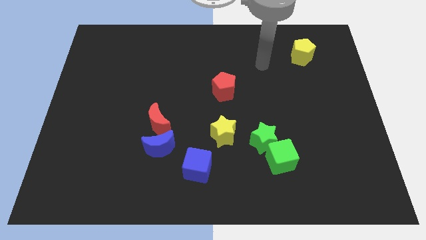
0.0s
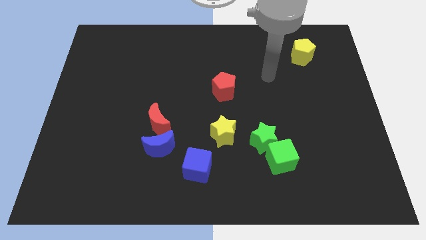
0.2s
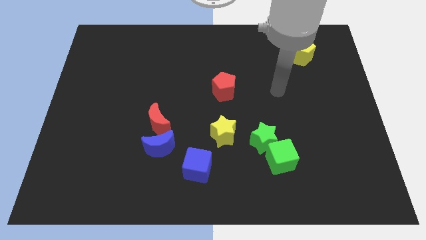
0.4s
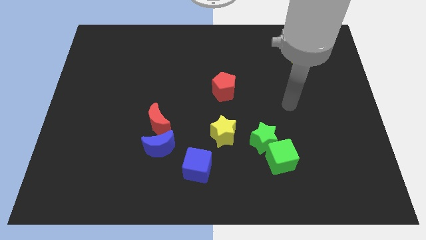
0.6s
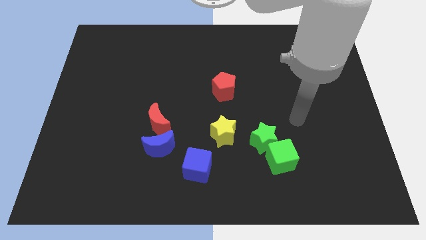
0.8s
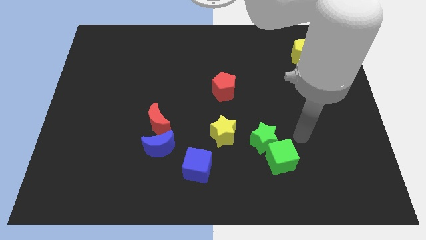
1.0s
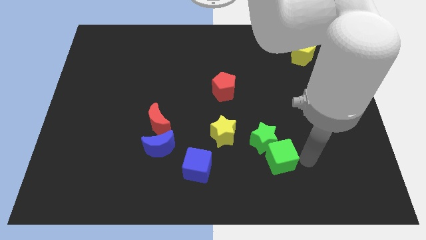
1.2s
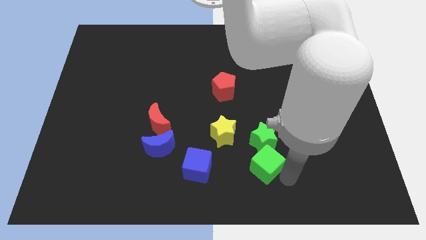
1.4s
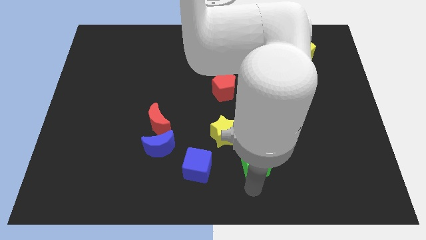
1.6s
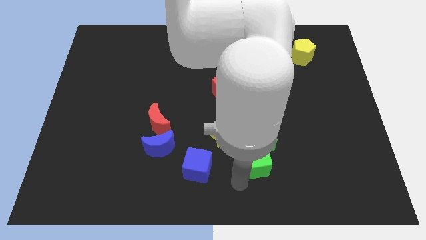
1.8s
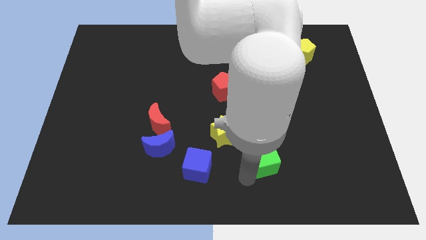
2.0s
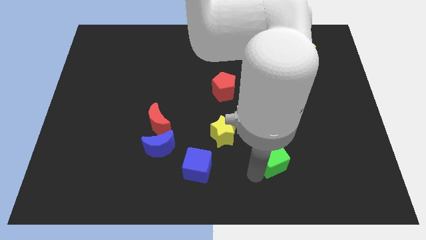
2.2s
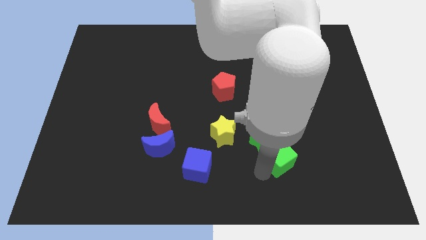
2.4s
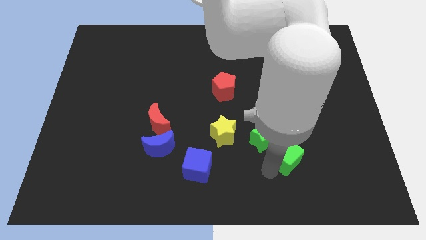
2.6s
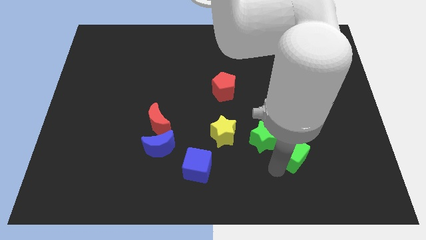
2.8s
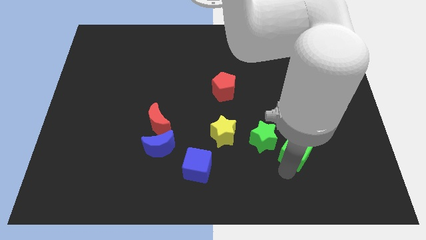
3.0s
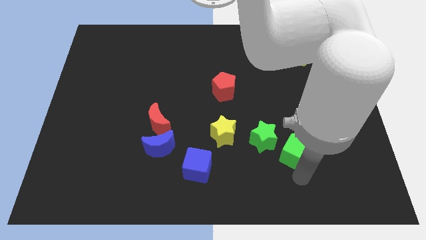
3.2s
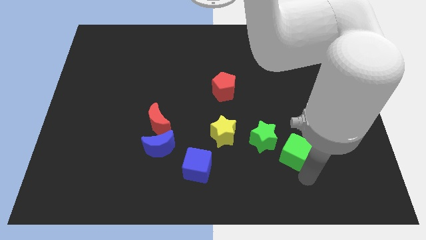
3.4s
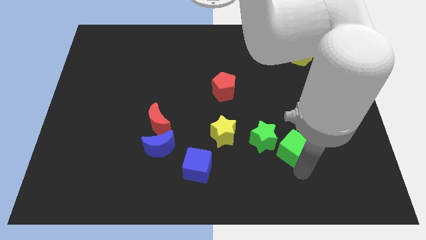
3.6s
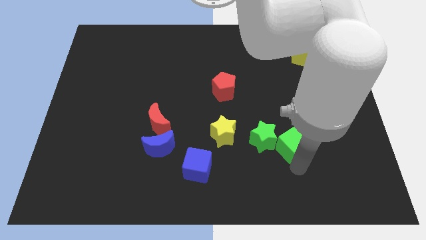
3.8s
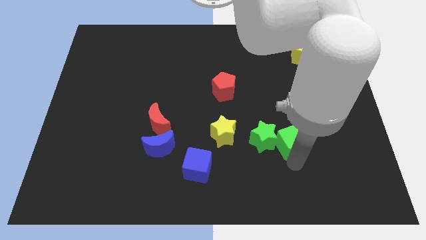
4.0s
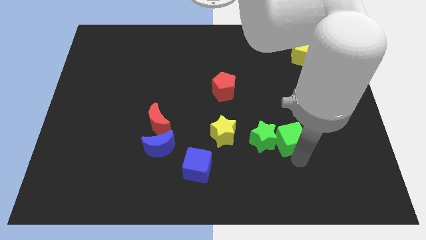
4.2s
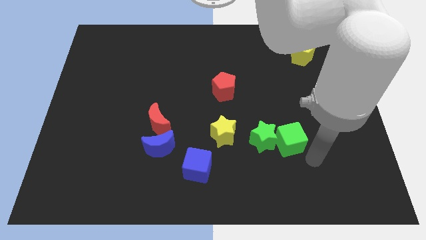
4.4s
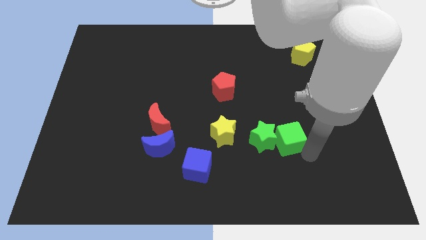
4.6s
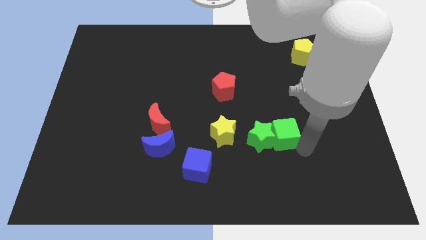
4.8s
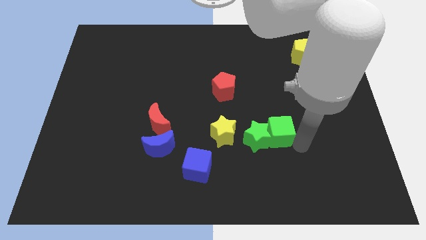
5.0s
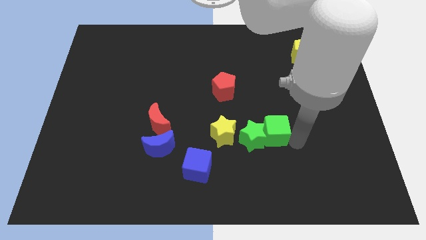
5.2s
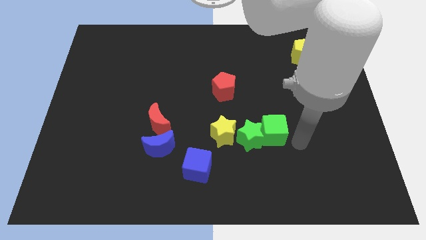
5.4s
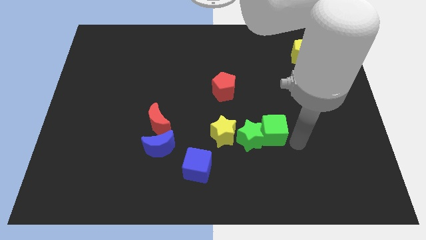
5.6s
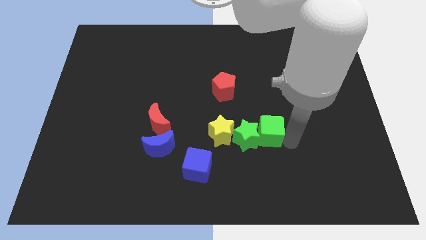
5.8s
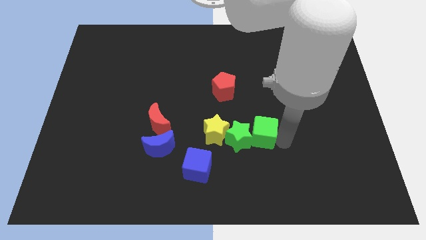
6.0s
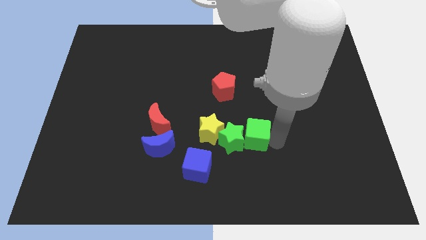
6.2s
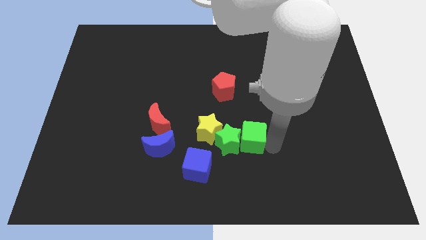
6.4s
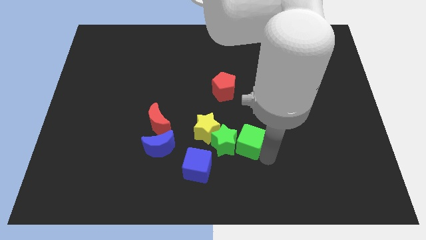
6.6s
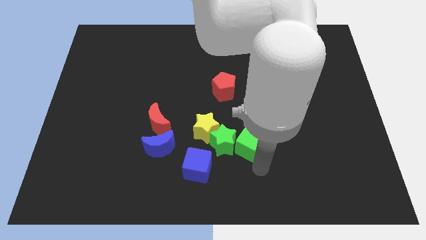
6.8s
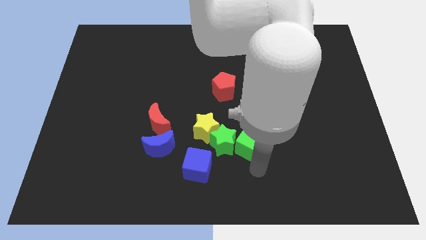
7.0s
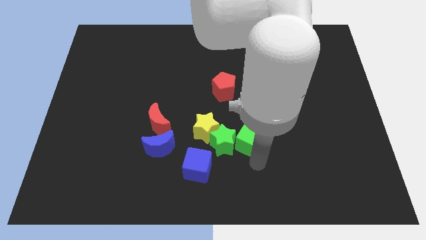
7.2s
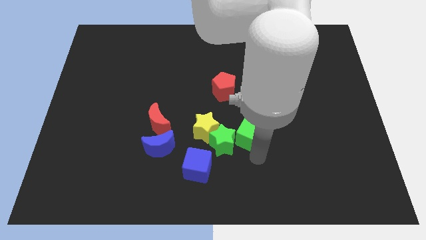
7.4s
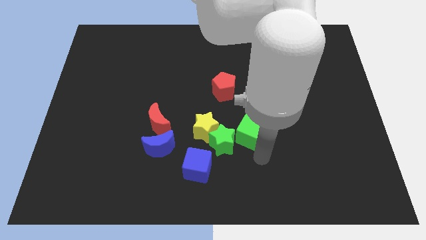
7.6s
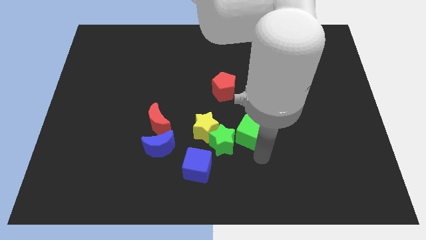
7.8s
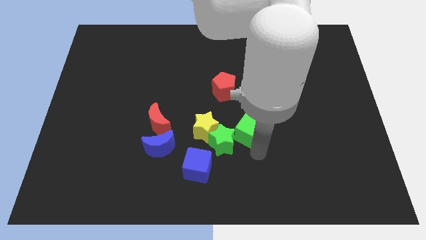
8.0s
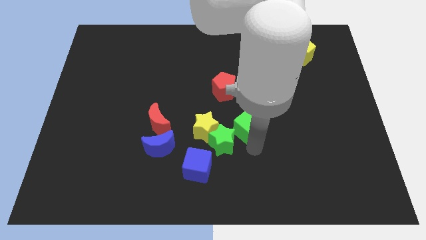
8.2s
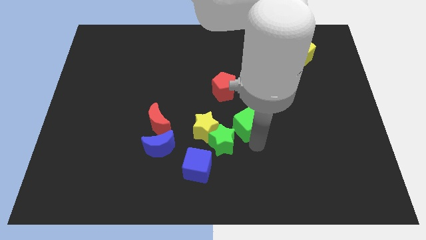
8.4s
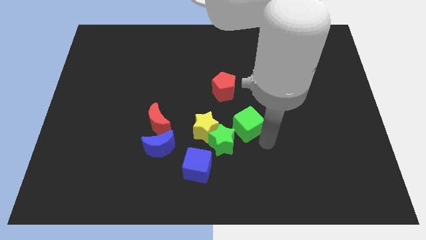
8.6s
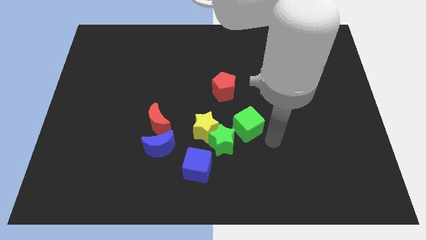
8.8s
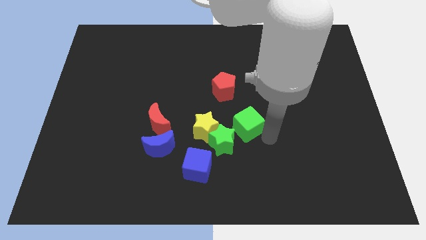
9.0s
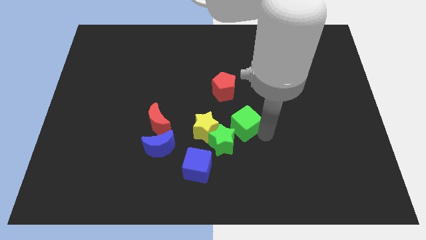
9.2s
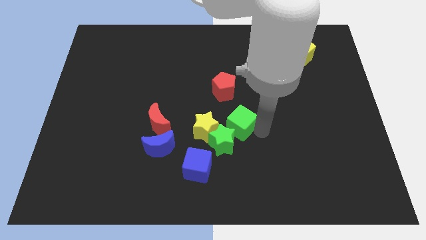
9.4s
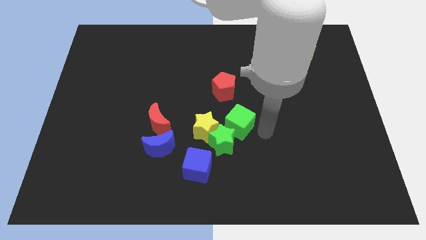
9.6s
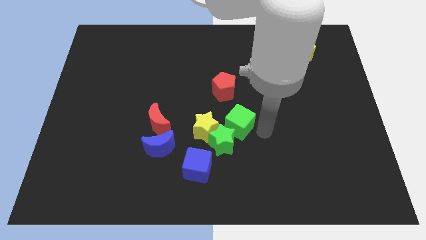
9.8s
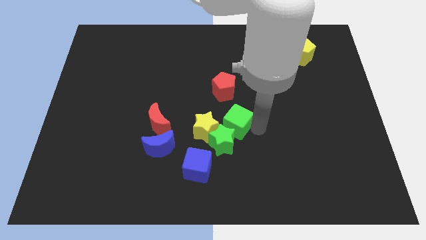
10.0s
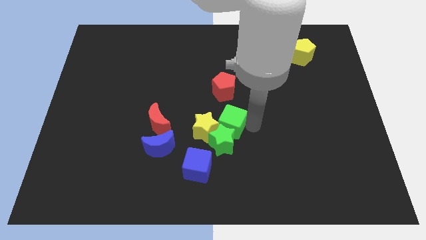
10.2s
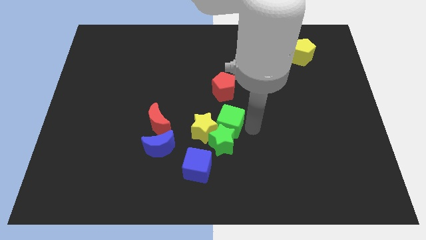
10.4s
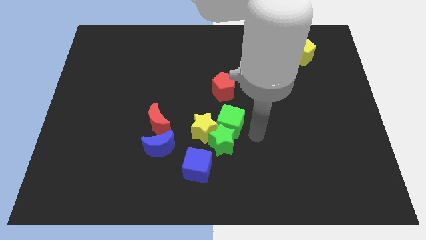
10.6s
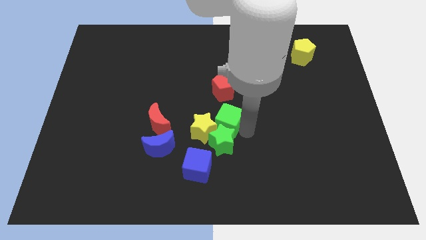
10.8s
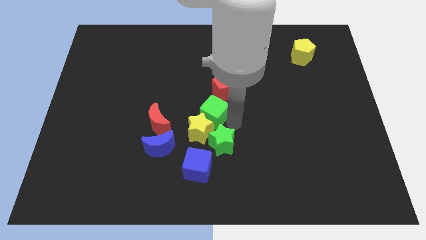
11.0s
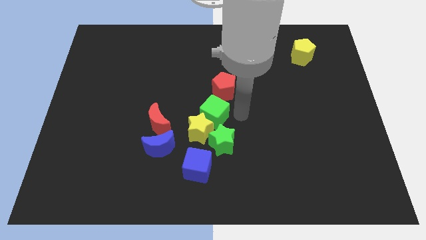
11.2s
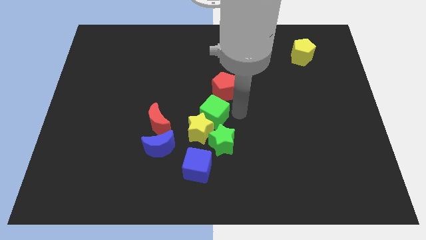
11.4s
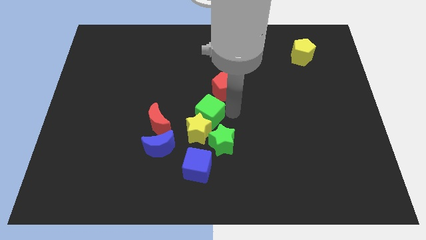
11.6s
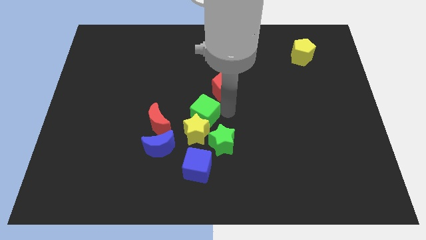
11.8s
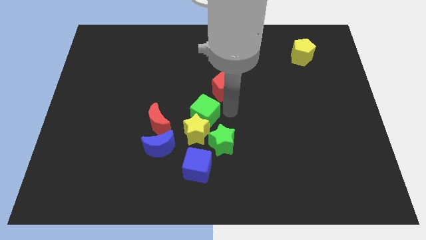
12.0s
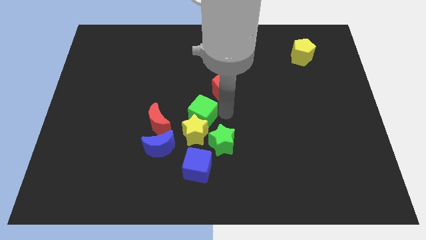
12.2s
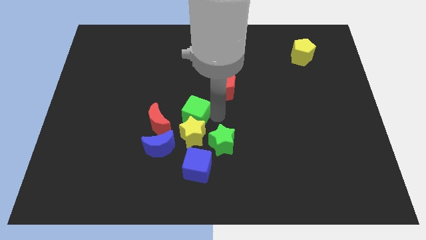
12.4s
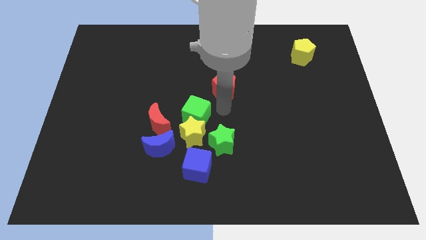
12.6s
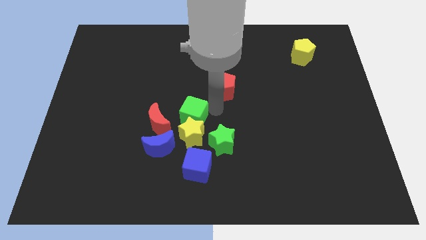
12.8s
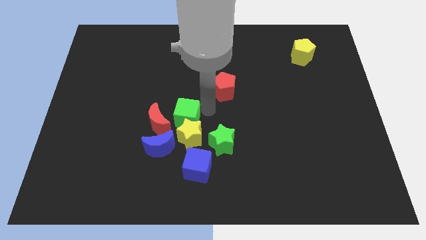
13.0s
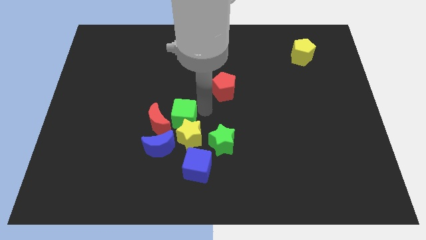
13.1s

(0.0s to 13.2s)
slide the green cube to the red moon
